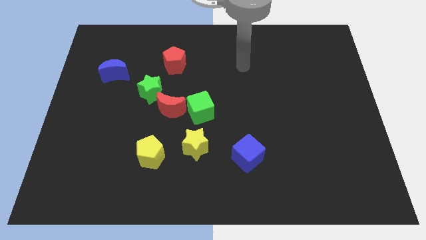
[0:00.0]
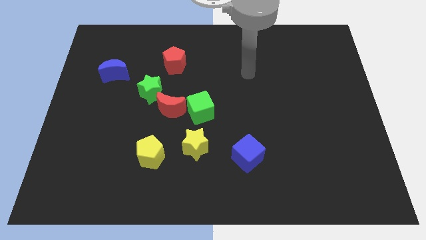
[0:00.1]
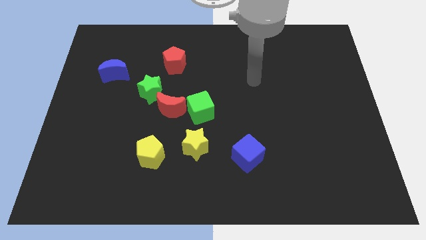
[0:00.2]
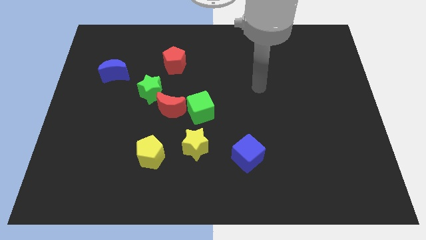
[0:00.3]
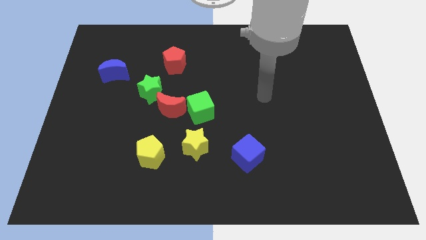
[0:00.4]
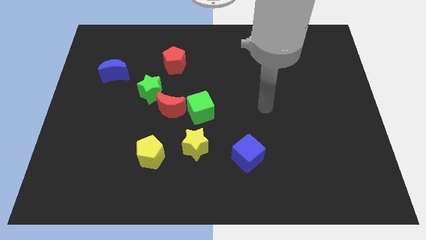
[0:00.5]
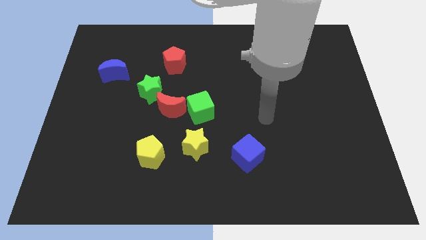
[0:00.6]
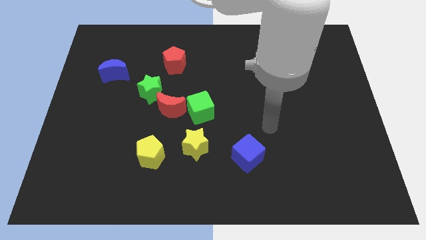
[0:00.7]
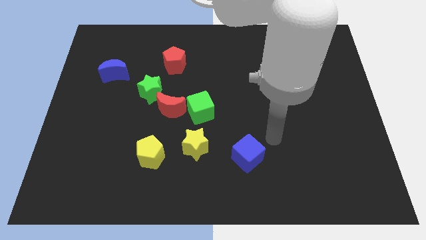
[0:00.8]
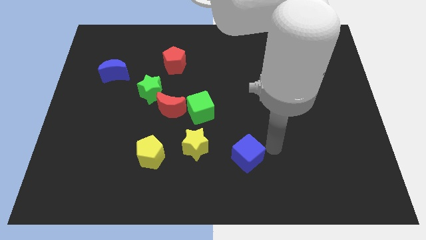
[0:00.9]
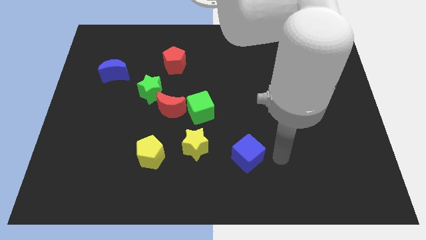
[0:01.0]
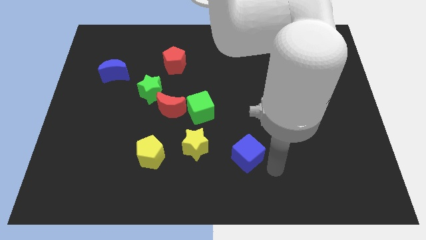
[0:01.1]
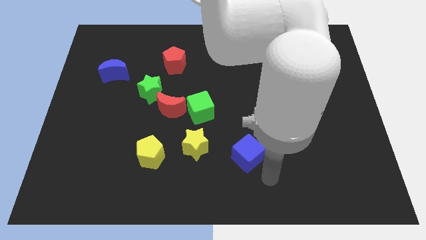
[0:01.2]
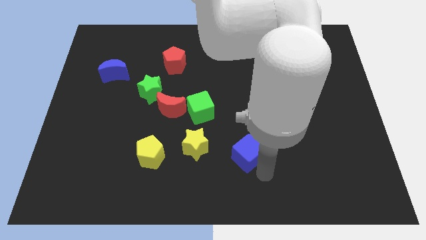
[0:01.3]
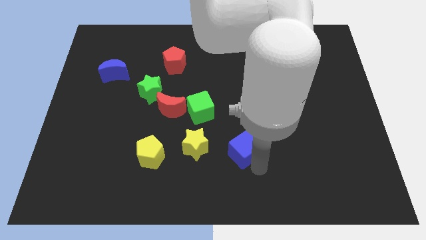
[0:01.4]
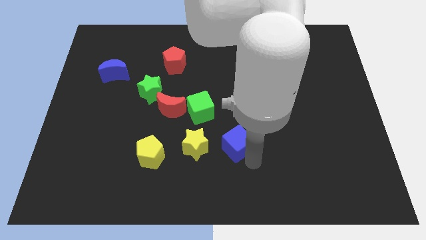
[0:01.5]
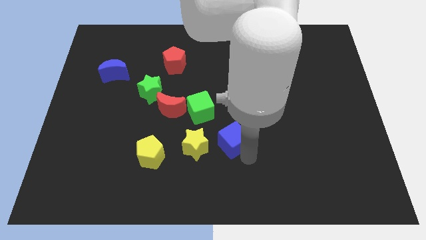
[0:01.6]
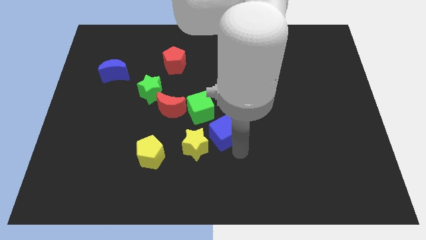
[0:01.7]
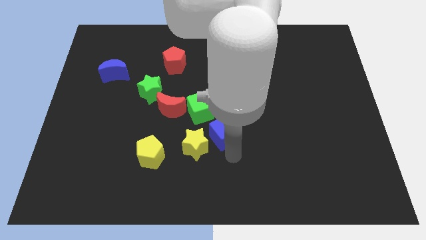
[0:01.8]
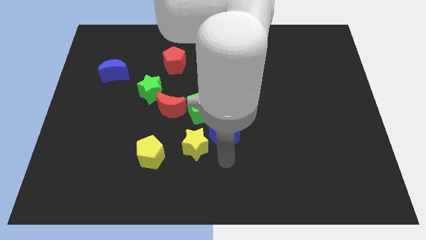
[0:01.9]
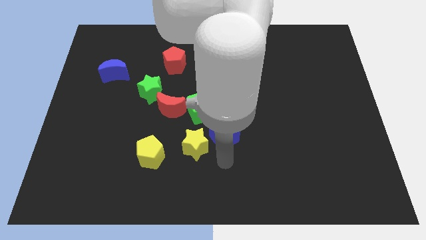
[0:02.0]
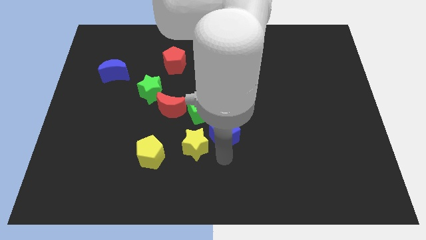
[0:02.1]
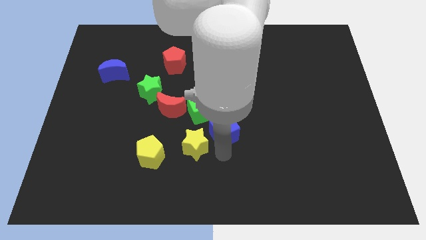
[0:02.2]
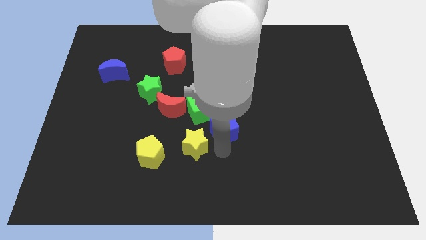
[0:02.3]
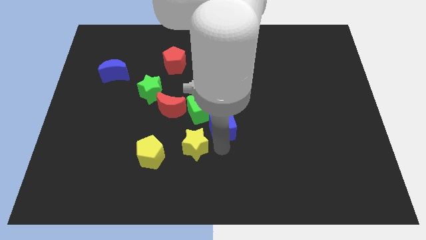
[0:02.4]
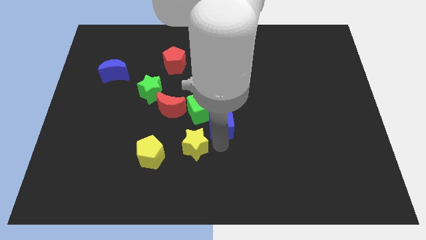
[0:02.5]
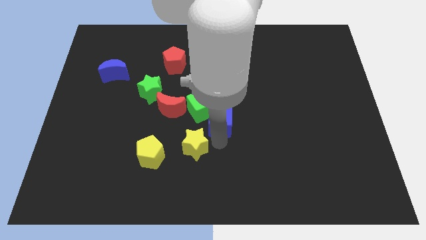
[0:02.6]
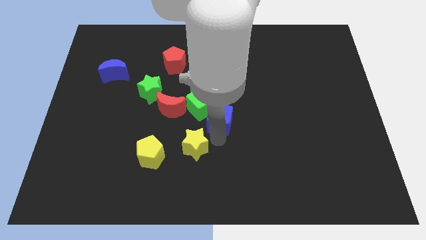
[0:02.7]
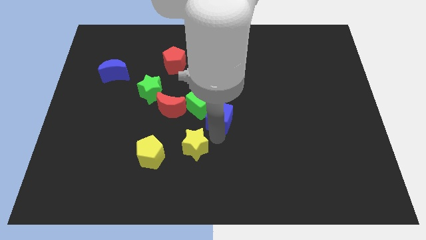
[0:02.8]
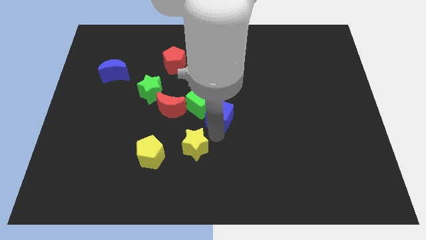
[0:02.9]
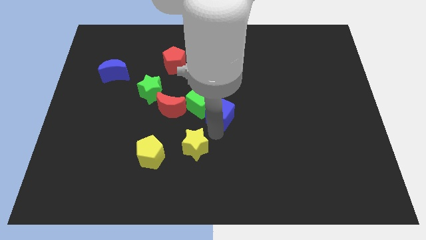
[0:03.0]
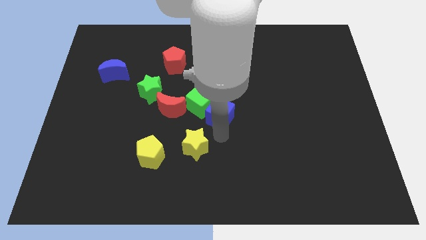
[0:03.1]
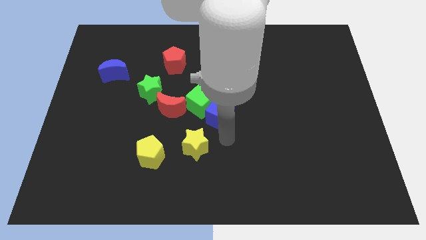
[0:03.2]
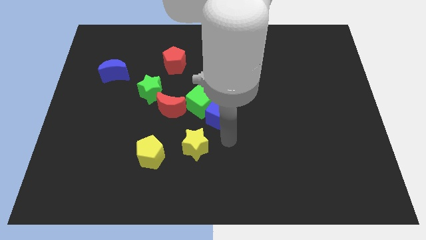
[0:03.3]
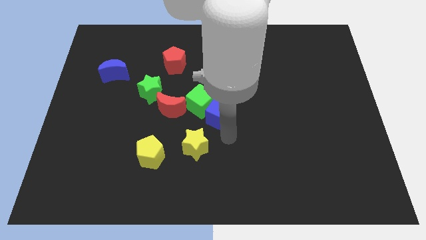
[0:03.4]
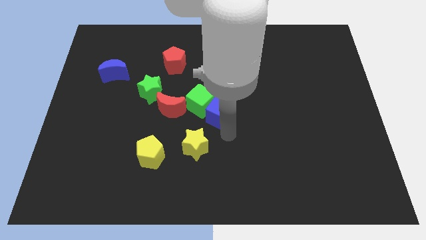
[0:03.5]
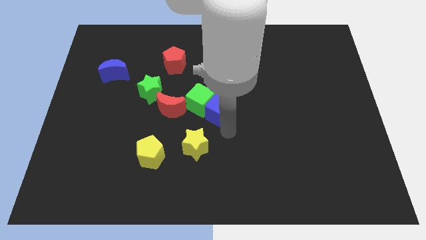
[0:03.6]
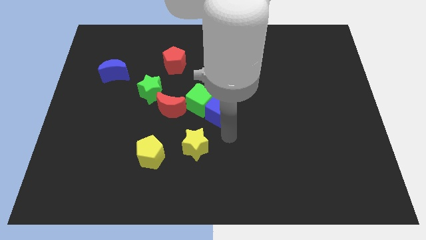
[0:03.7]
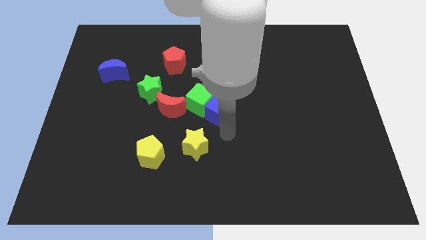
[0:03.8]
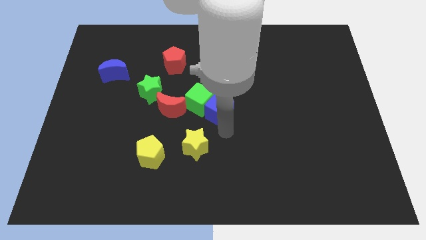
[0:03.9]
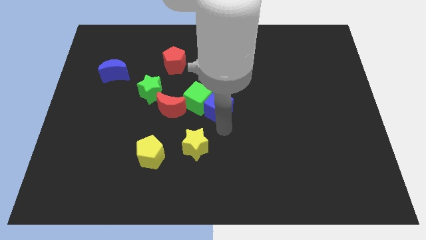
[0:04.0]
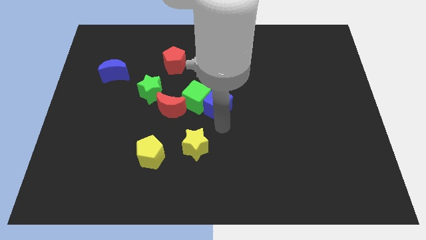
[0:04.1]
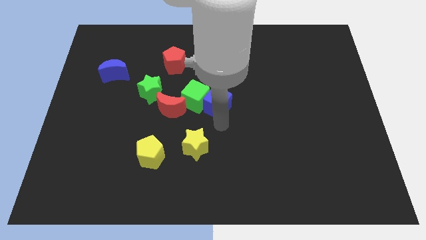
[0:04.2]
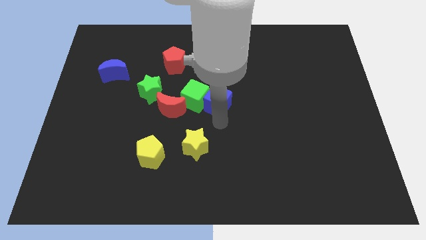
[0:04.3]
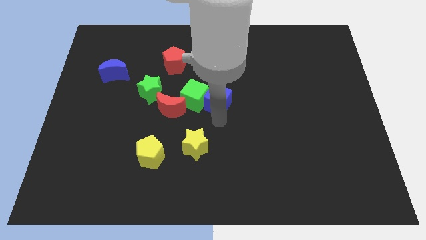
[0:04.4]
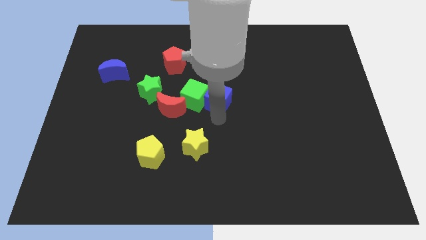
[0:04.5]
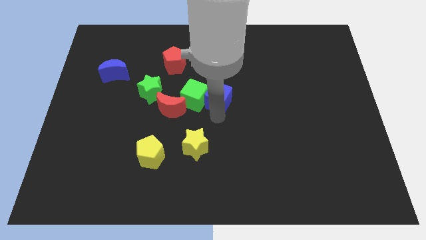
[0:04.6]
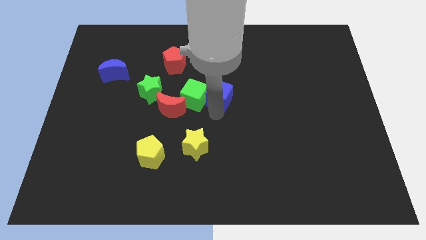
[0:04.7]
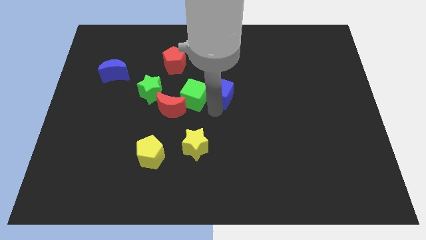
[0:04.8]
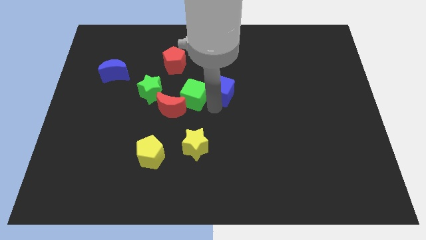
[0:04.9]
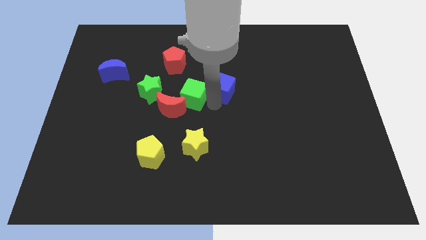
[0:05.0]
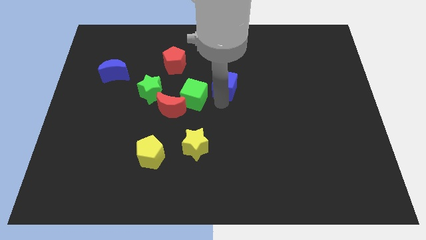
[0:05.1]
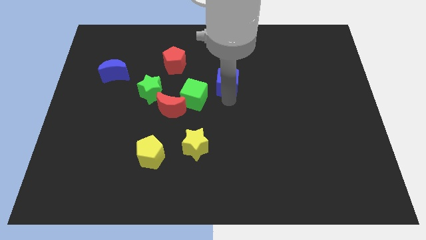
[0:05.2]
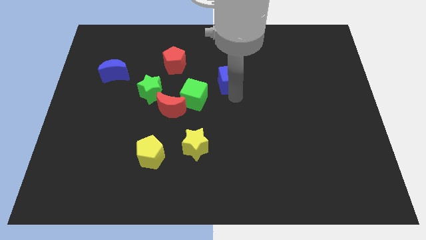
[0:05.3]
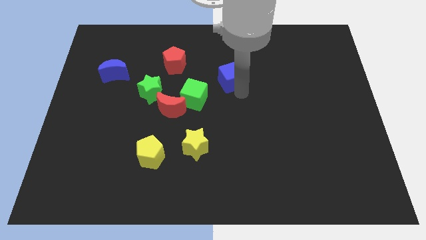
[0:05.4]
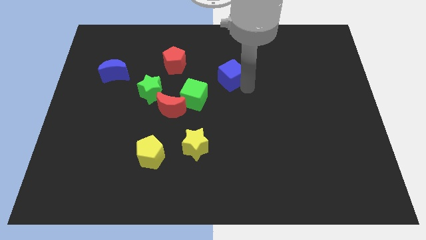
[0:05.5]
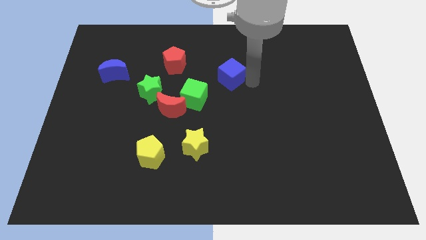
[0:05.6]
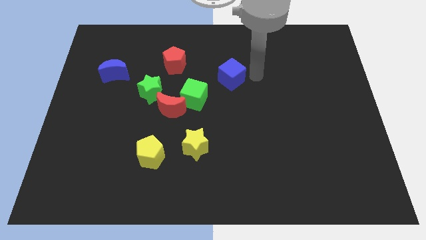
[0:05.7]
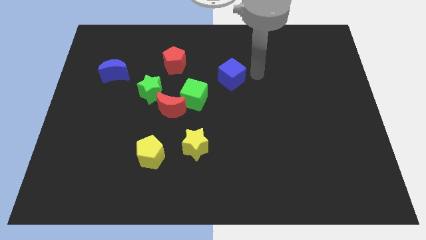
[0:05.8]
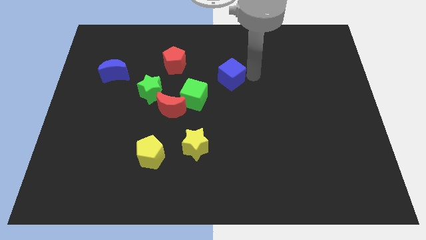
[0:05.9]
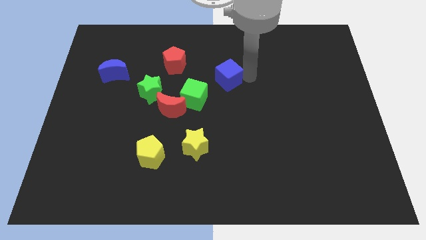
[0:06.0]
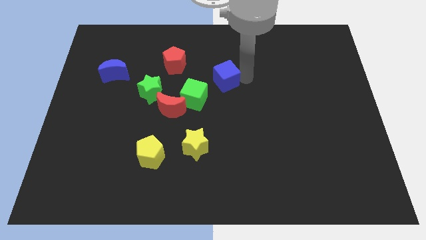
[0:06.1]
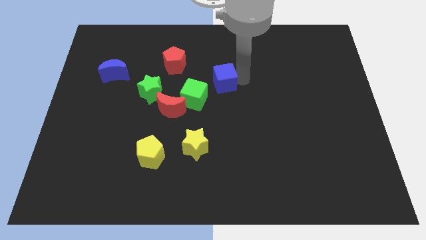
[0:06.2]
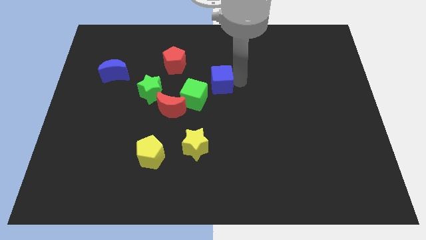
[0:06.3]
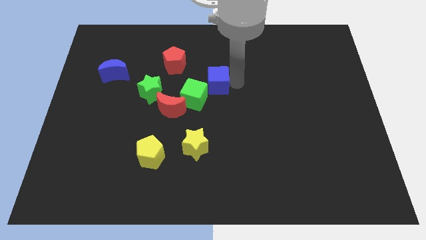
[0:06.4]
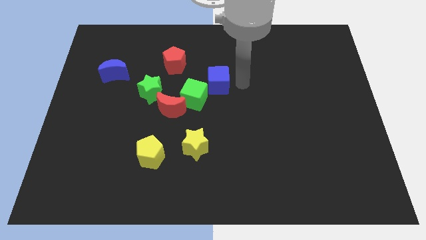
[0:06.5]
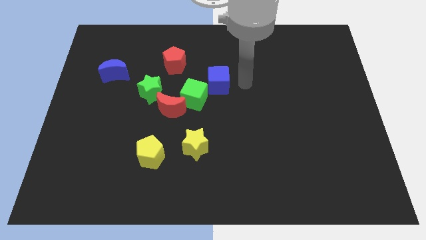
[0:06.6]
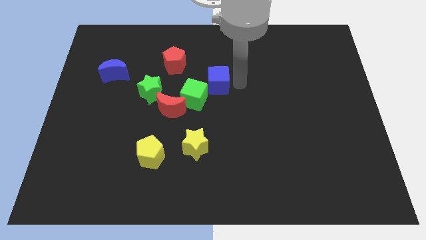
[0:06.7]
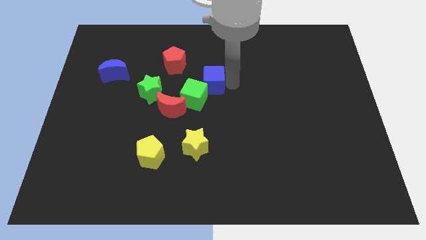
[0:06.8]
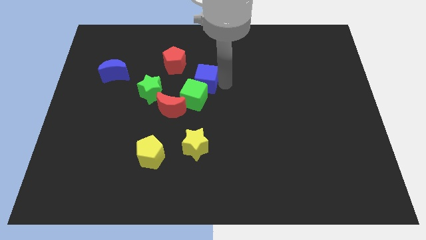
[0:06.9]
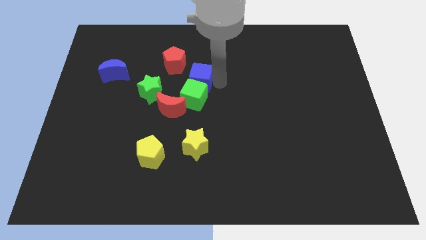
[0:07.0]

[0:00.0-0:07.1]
push the blue cube diagonally up and left

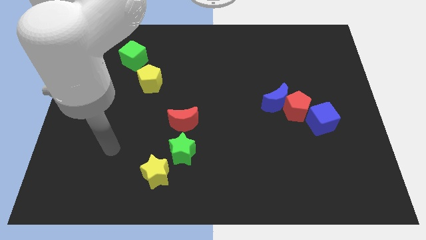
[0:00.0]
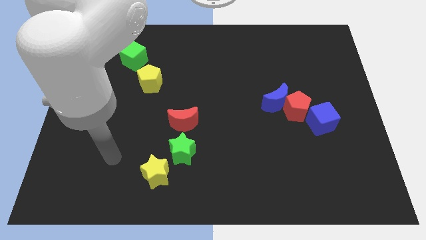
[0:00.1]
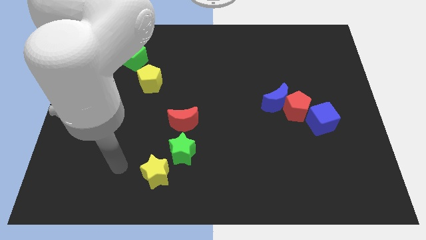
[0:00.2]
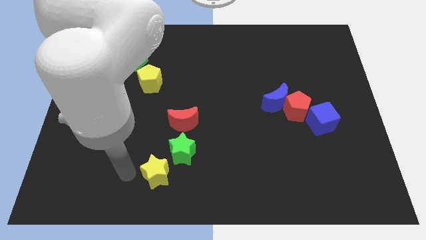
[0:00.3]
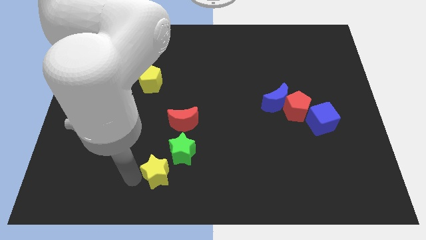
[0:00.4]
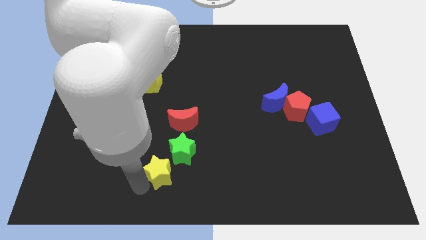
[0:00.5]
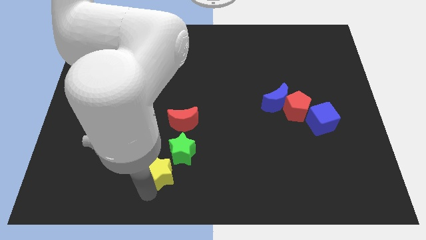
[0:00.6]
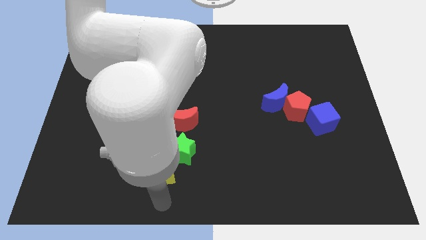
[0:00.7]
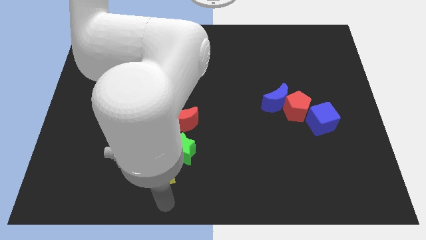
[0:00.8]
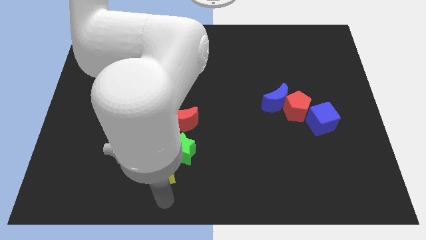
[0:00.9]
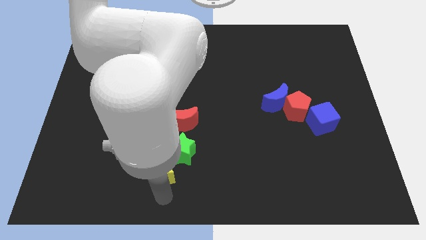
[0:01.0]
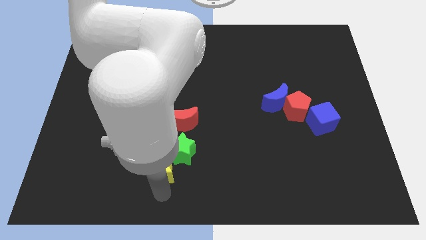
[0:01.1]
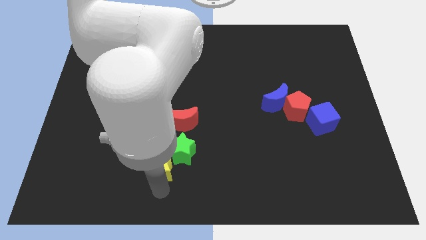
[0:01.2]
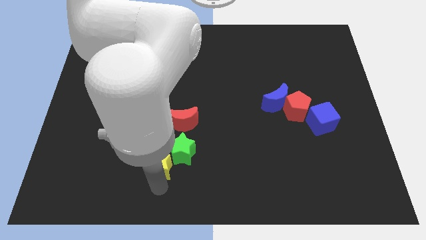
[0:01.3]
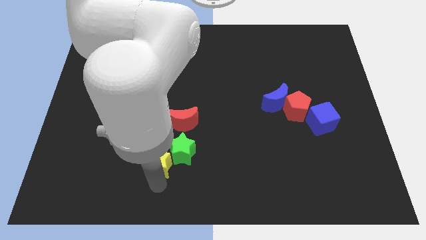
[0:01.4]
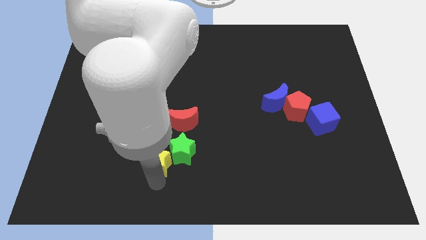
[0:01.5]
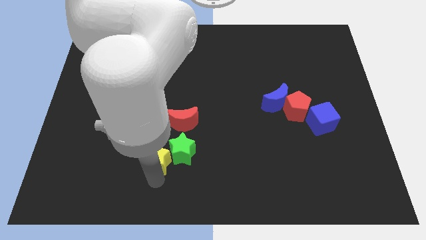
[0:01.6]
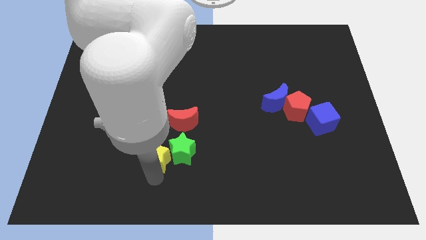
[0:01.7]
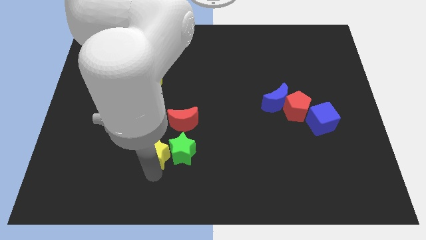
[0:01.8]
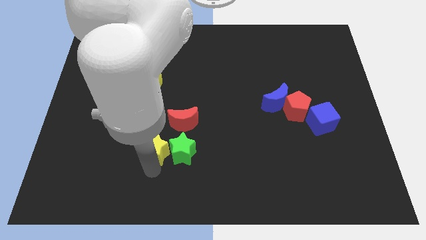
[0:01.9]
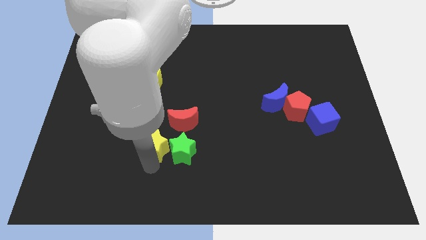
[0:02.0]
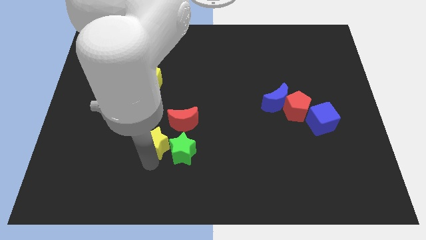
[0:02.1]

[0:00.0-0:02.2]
push the yellow star upwards a little
